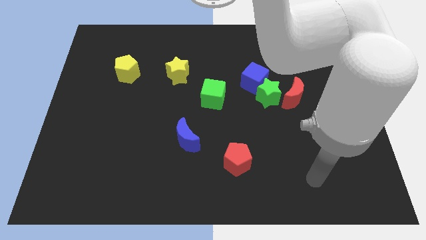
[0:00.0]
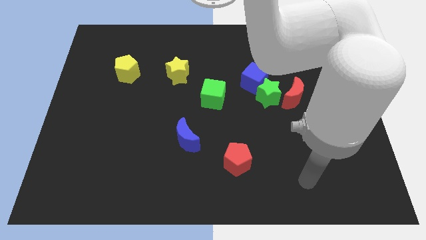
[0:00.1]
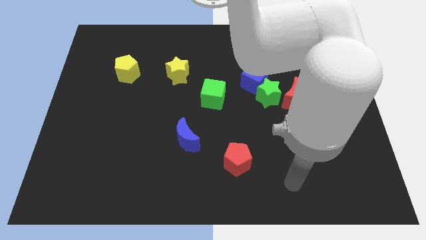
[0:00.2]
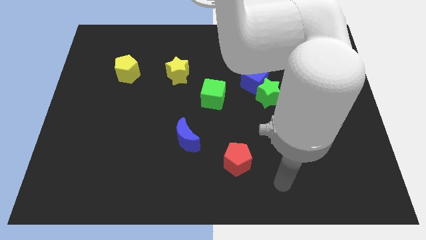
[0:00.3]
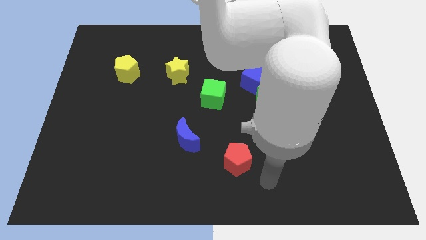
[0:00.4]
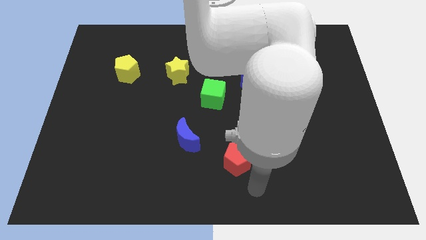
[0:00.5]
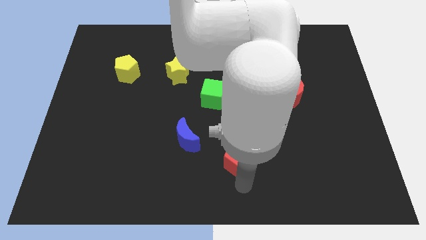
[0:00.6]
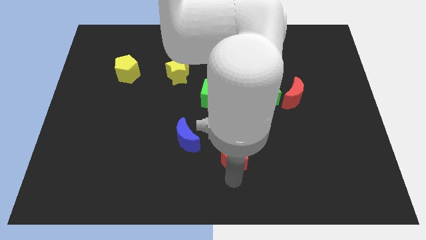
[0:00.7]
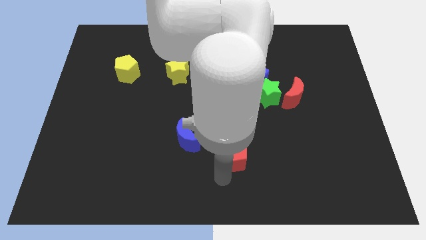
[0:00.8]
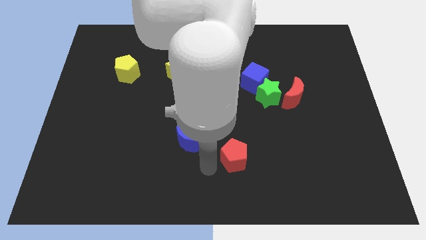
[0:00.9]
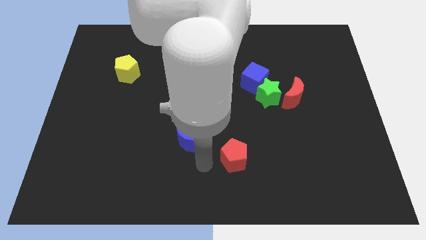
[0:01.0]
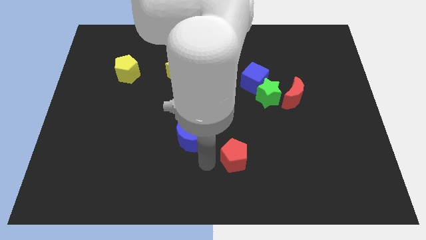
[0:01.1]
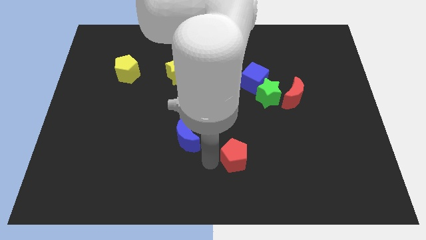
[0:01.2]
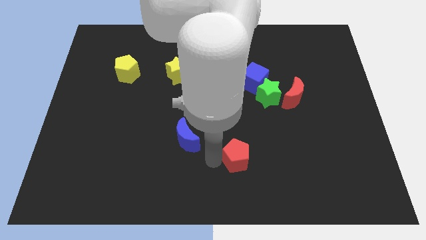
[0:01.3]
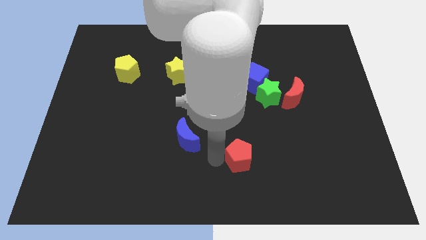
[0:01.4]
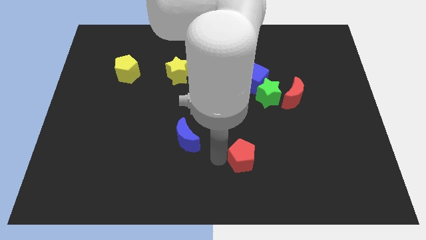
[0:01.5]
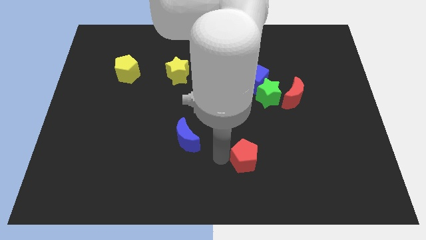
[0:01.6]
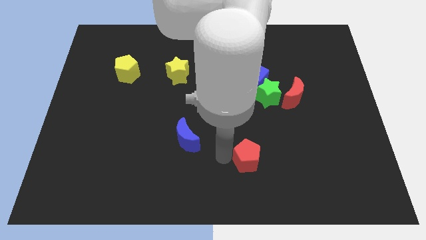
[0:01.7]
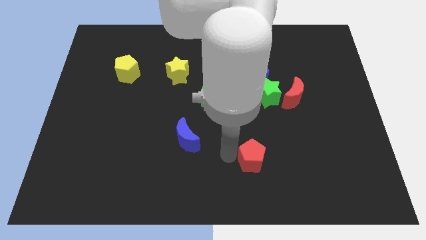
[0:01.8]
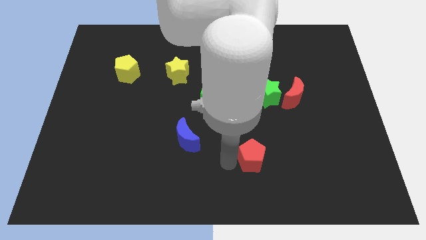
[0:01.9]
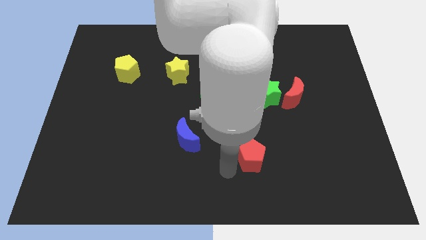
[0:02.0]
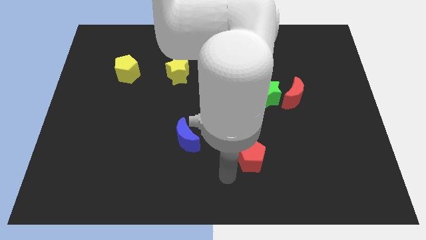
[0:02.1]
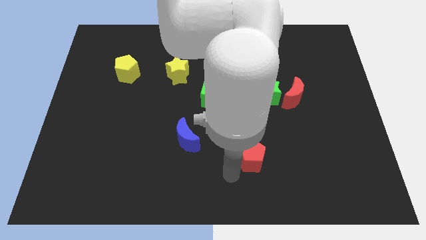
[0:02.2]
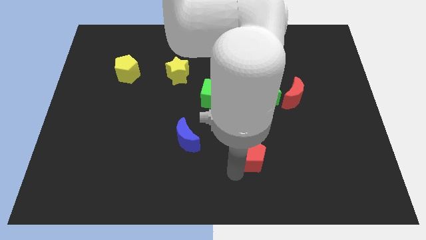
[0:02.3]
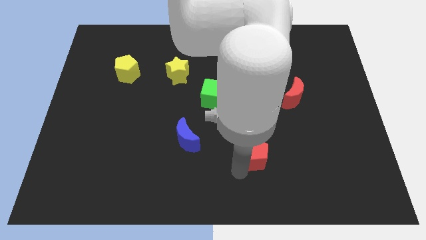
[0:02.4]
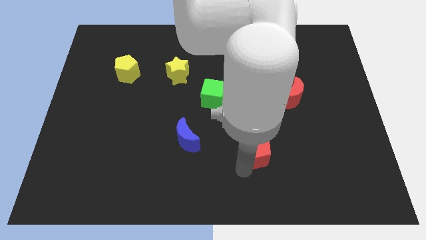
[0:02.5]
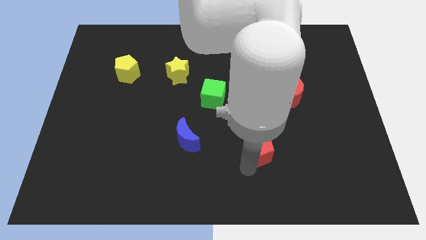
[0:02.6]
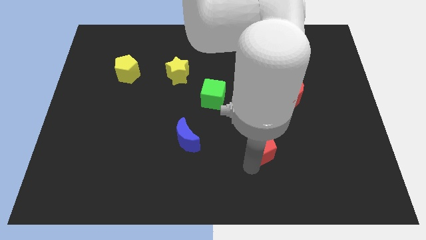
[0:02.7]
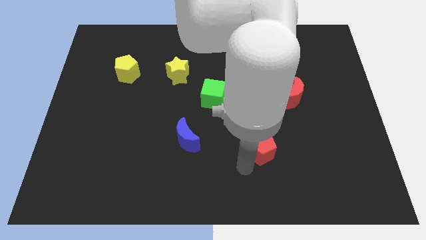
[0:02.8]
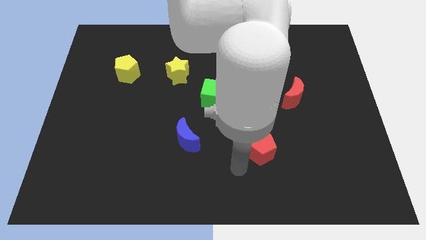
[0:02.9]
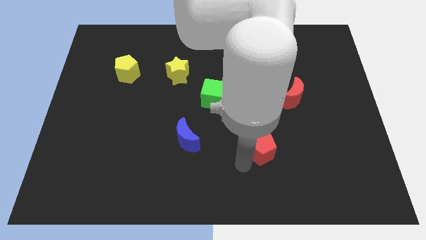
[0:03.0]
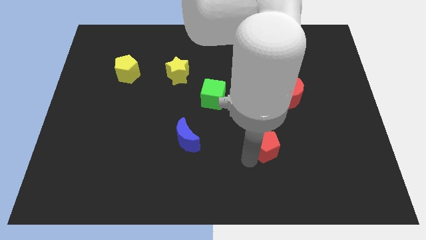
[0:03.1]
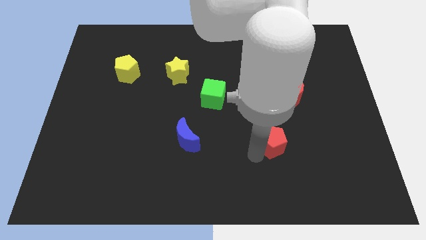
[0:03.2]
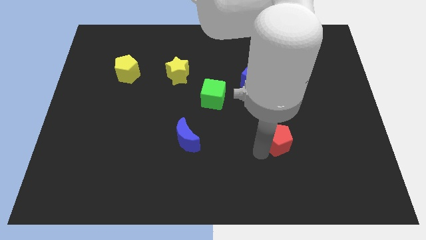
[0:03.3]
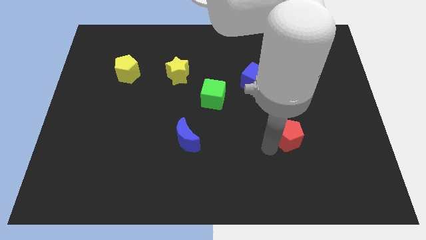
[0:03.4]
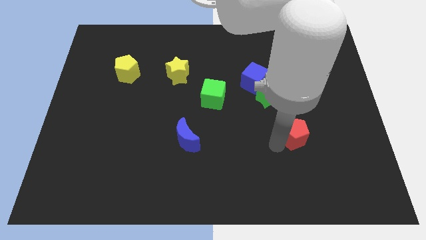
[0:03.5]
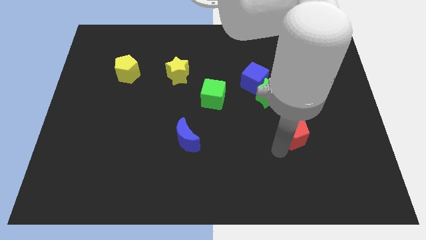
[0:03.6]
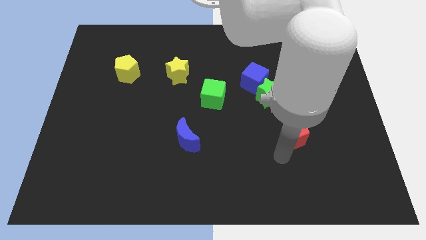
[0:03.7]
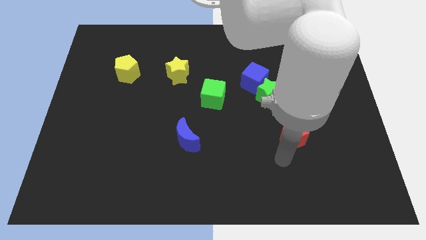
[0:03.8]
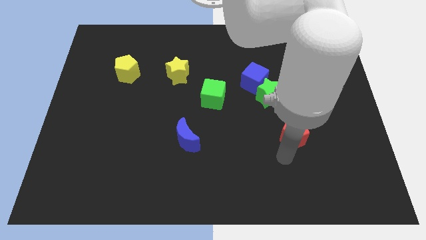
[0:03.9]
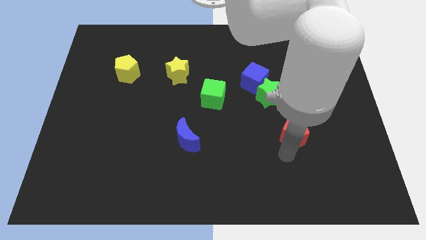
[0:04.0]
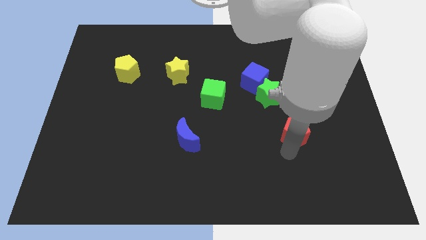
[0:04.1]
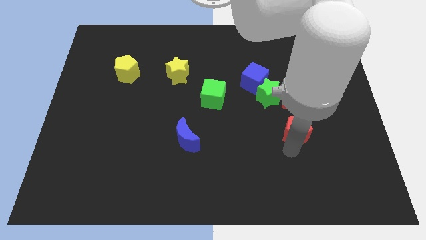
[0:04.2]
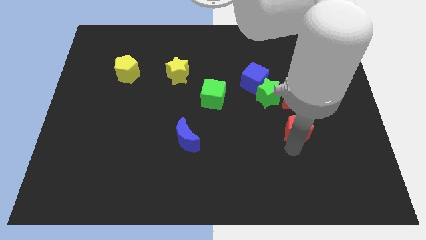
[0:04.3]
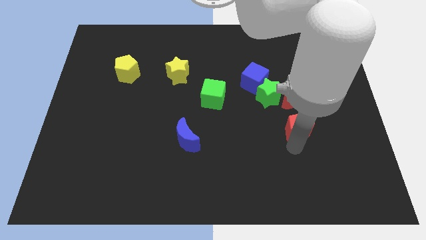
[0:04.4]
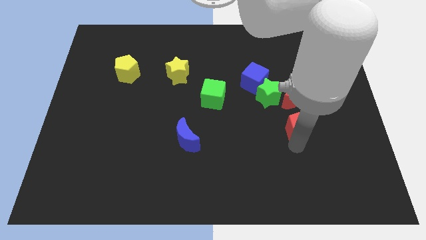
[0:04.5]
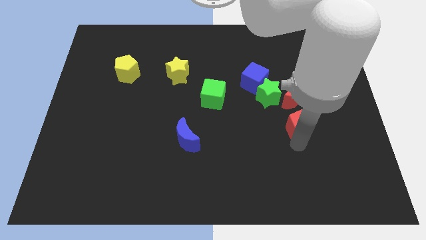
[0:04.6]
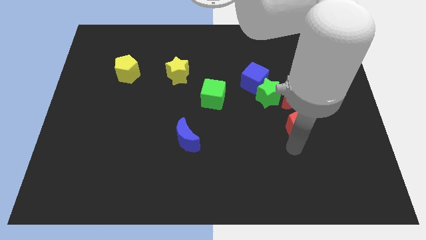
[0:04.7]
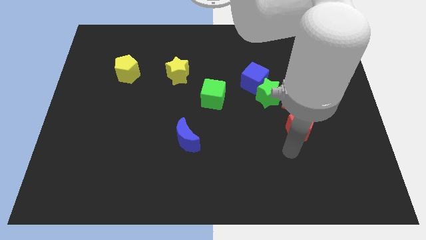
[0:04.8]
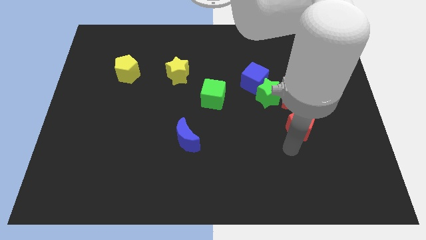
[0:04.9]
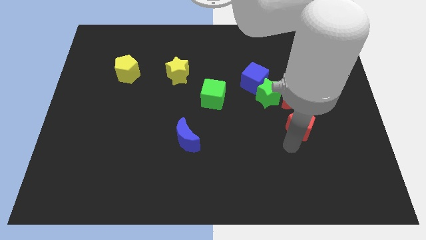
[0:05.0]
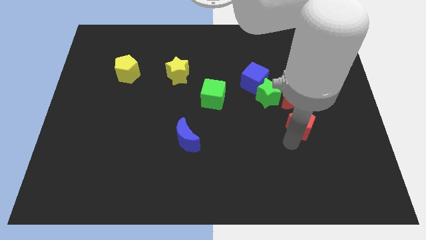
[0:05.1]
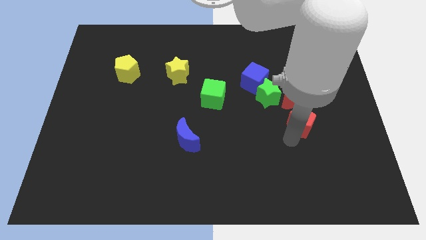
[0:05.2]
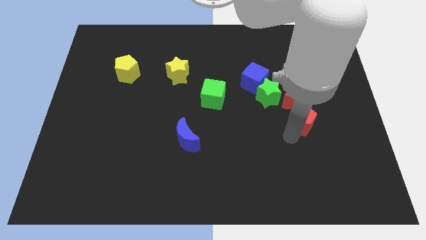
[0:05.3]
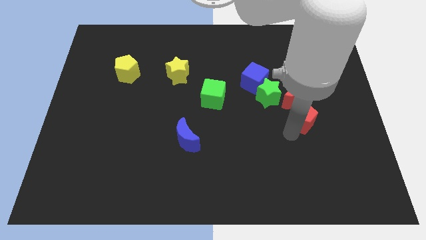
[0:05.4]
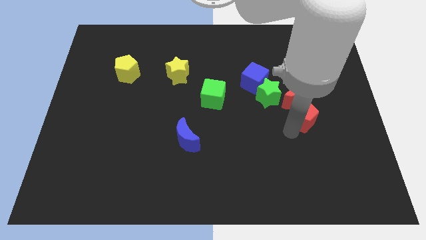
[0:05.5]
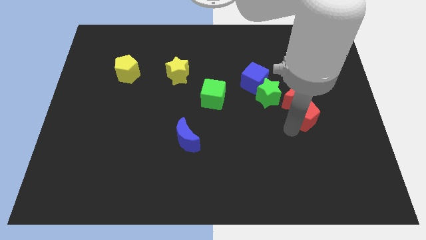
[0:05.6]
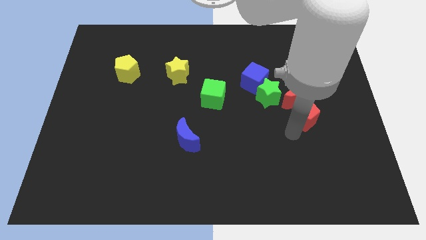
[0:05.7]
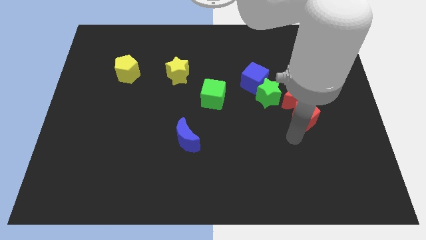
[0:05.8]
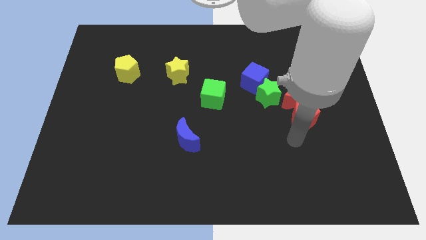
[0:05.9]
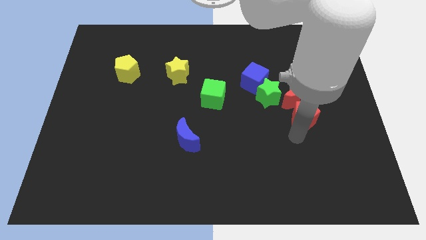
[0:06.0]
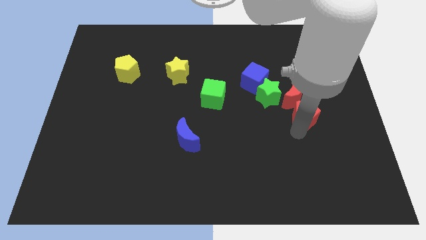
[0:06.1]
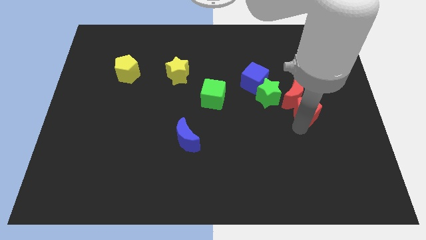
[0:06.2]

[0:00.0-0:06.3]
slide the red pentagon up and right

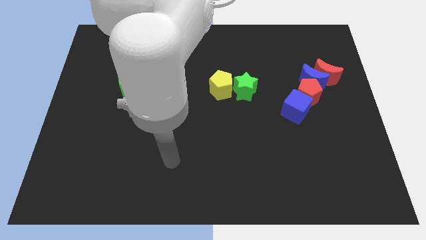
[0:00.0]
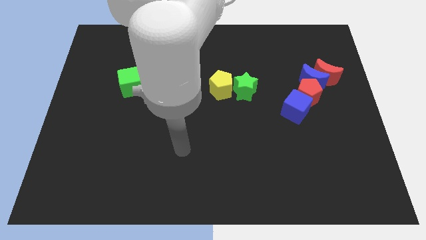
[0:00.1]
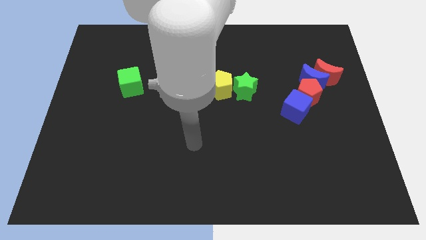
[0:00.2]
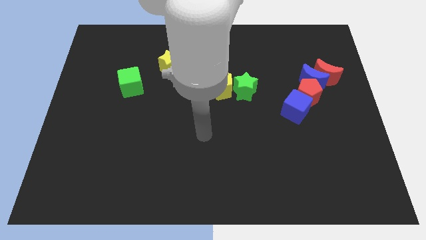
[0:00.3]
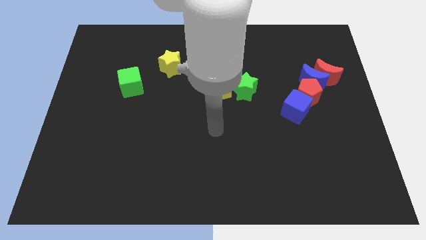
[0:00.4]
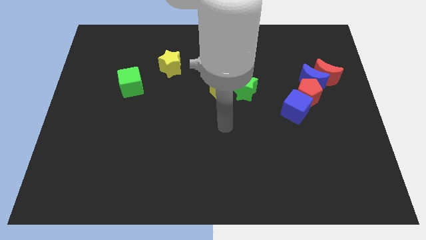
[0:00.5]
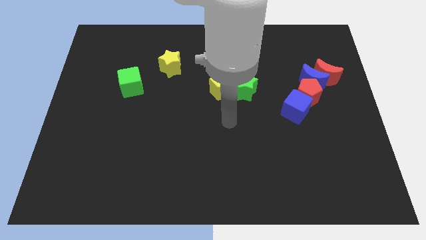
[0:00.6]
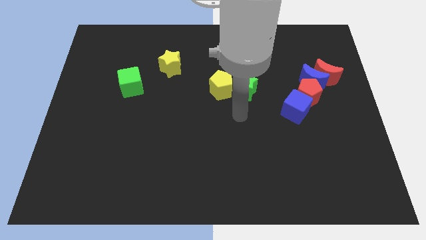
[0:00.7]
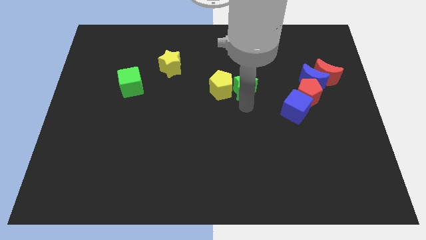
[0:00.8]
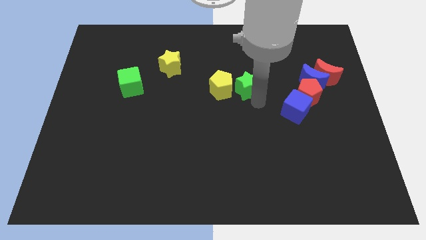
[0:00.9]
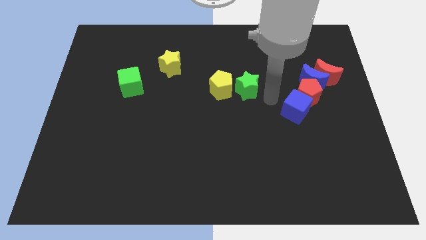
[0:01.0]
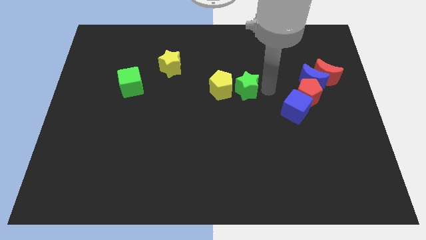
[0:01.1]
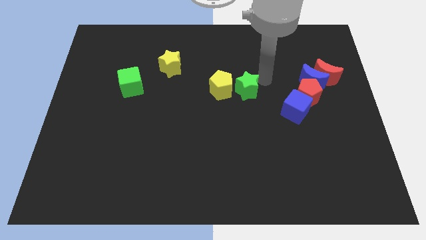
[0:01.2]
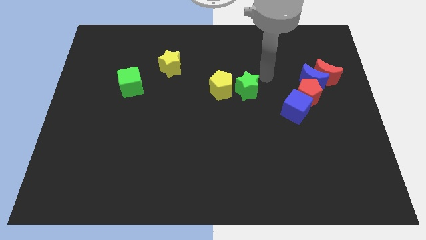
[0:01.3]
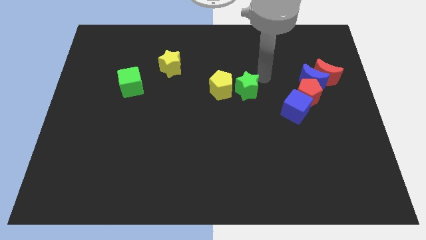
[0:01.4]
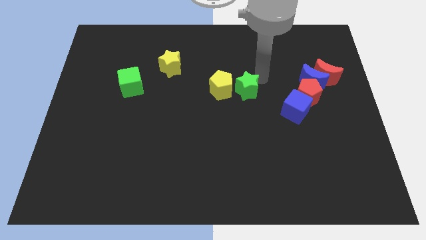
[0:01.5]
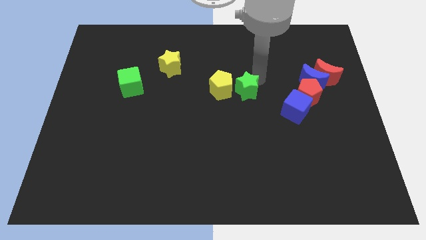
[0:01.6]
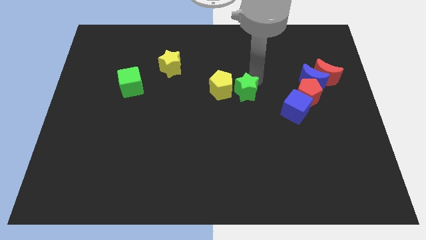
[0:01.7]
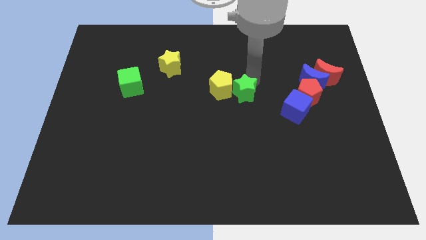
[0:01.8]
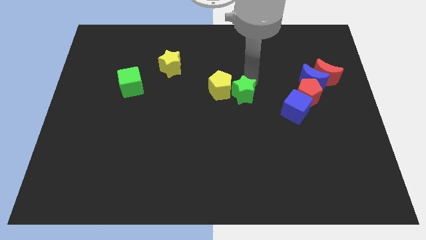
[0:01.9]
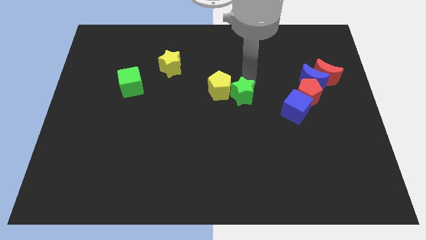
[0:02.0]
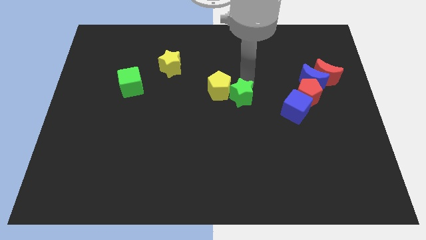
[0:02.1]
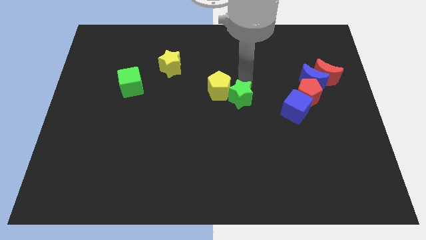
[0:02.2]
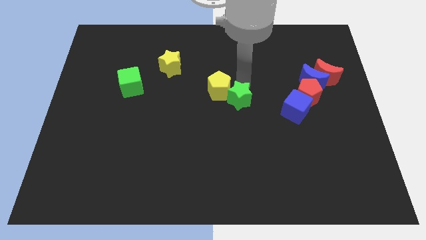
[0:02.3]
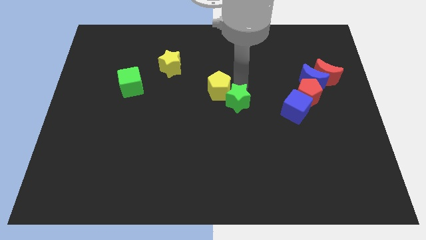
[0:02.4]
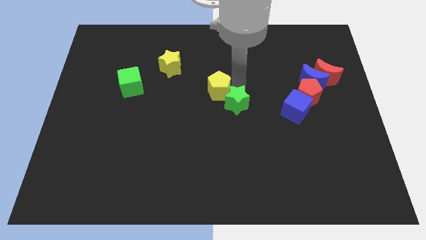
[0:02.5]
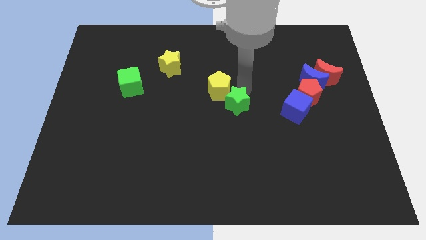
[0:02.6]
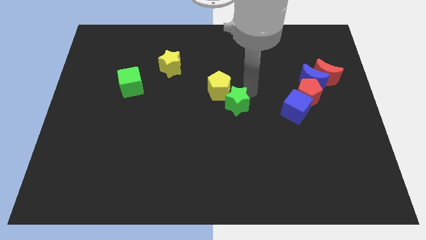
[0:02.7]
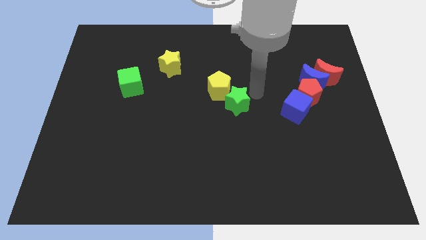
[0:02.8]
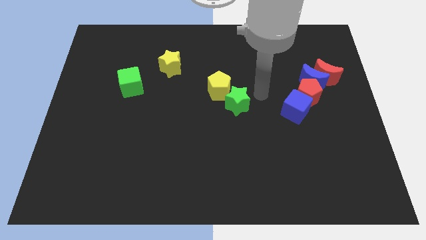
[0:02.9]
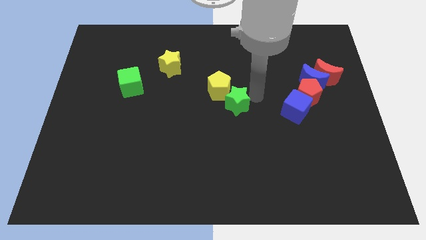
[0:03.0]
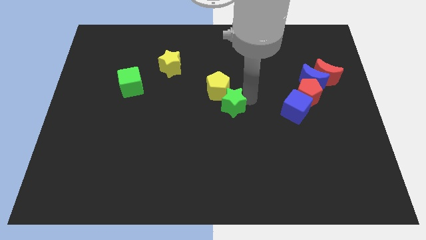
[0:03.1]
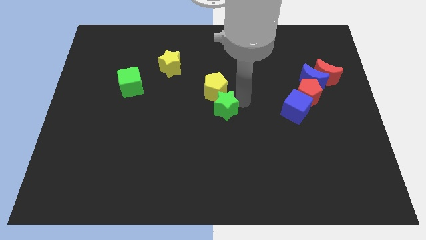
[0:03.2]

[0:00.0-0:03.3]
slide the green star down and then to the left a little
